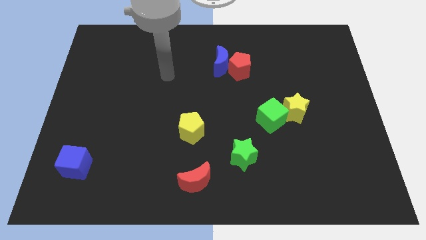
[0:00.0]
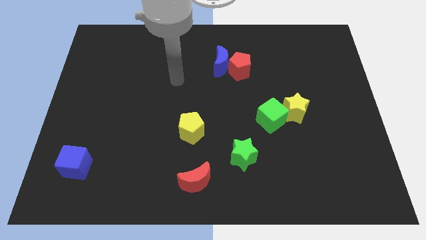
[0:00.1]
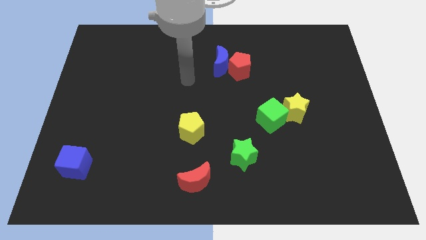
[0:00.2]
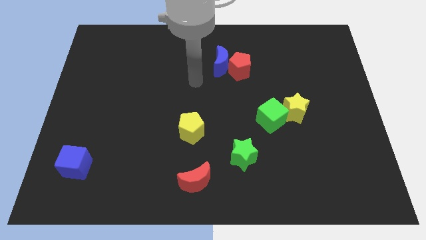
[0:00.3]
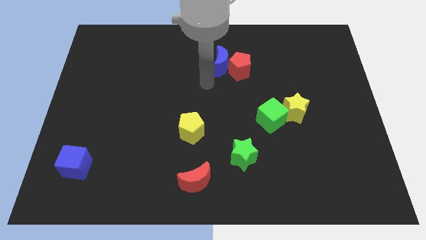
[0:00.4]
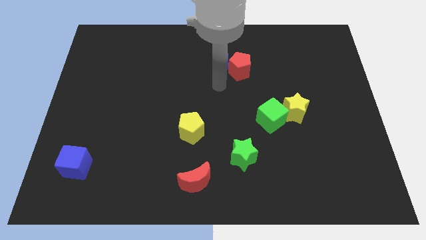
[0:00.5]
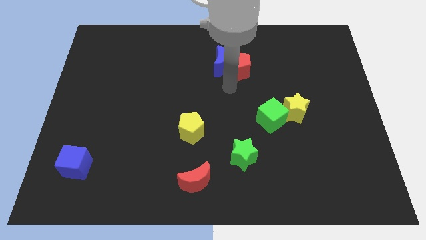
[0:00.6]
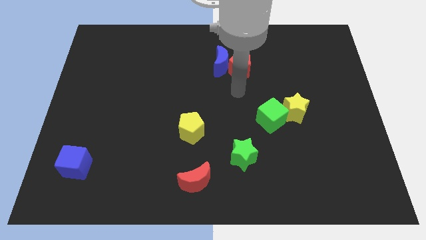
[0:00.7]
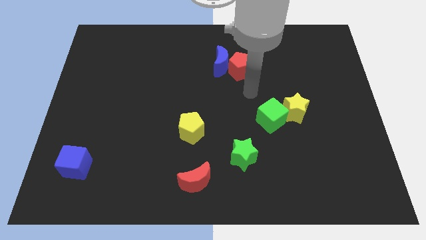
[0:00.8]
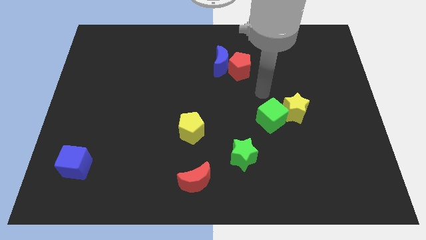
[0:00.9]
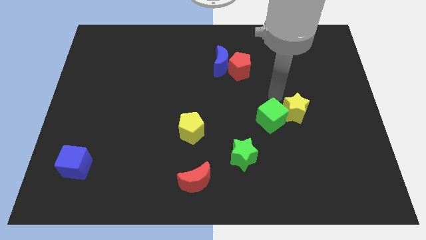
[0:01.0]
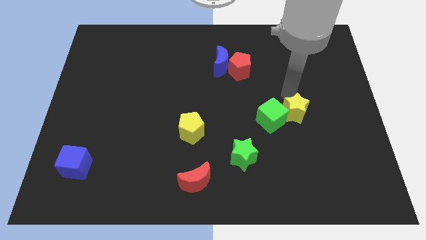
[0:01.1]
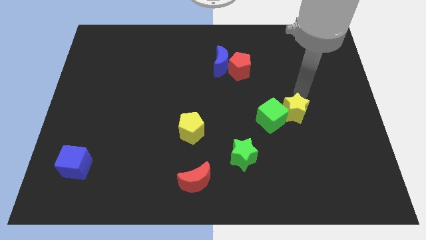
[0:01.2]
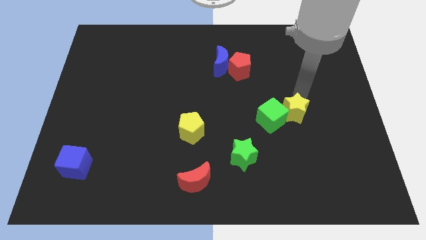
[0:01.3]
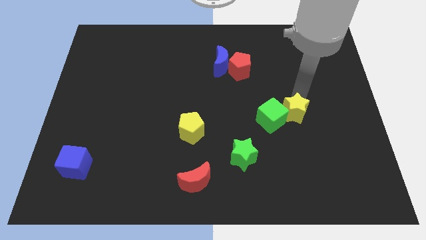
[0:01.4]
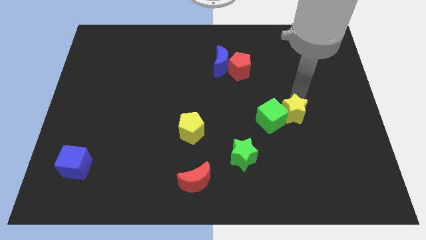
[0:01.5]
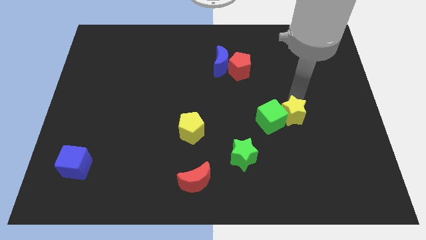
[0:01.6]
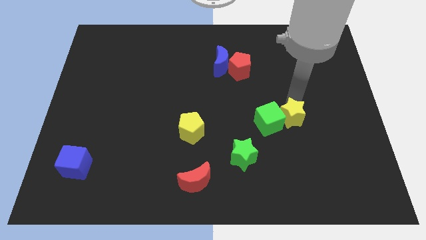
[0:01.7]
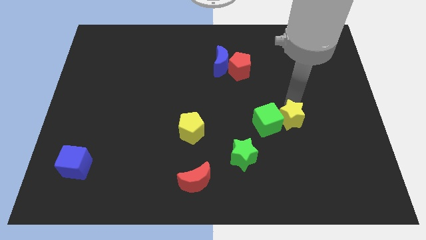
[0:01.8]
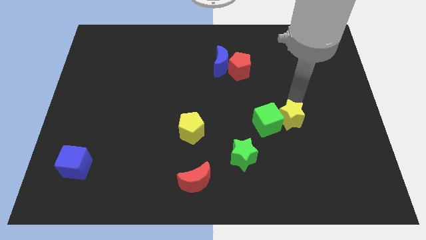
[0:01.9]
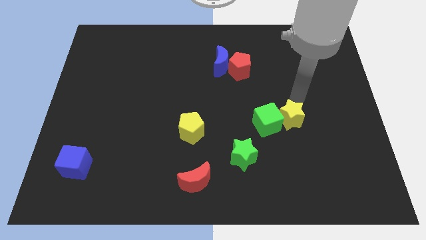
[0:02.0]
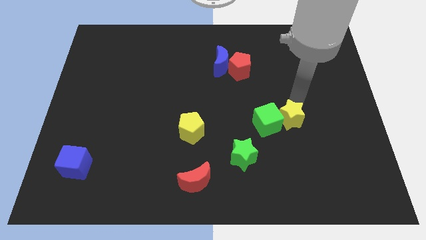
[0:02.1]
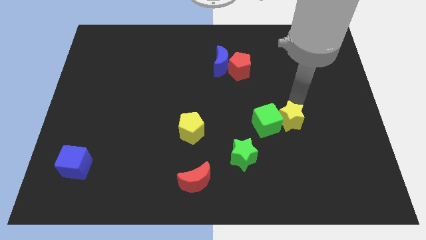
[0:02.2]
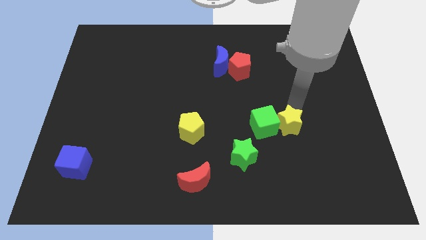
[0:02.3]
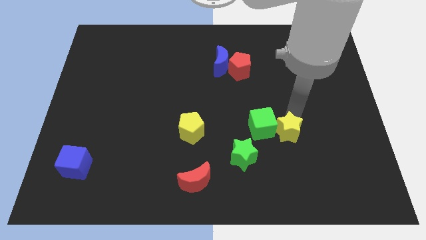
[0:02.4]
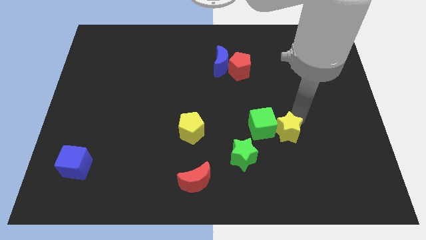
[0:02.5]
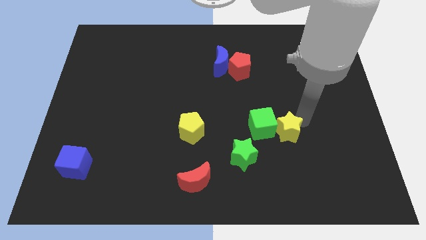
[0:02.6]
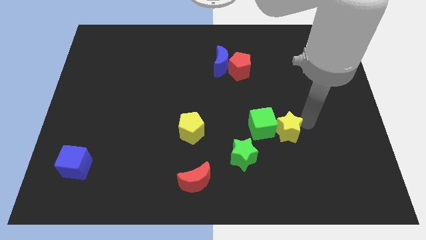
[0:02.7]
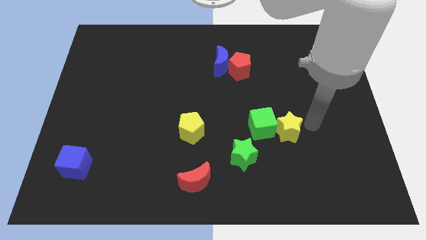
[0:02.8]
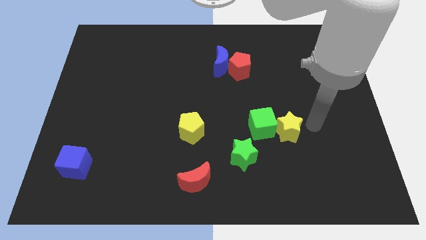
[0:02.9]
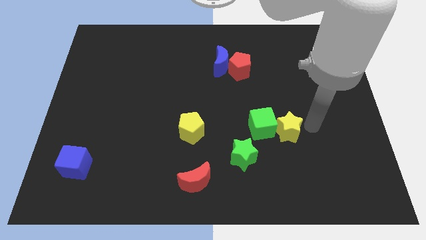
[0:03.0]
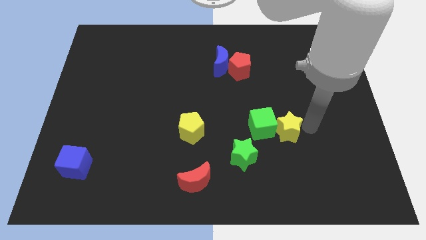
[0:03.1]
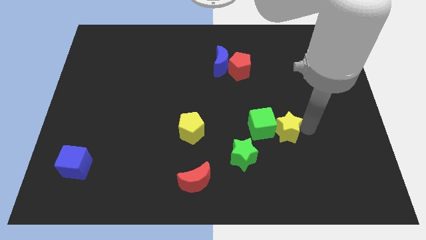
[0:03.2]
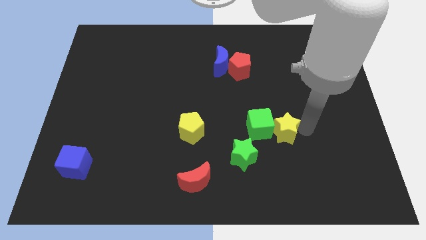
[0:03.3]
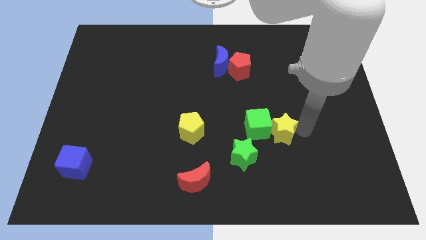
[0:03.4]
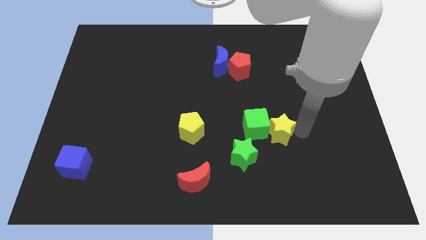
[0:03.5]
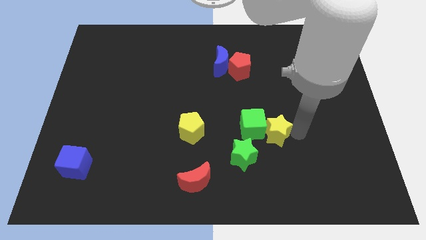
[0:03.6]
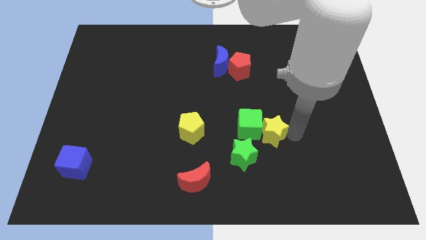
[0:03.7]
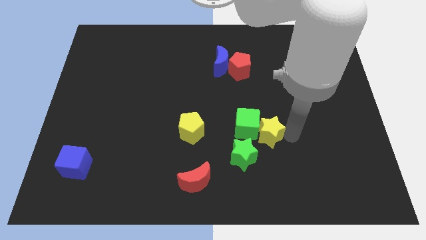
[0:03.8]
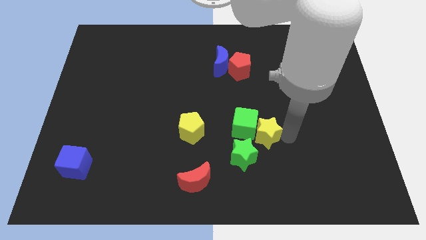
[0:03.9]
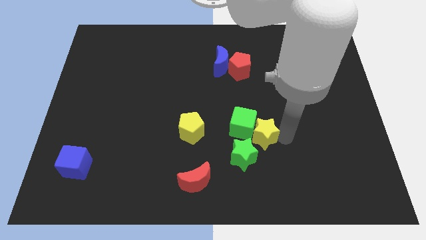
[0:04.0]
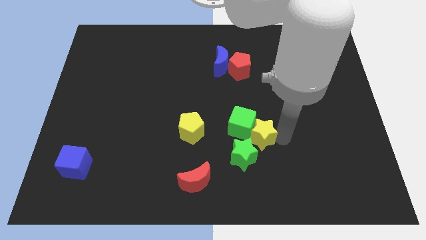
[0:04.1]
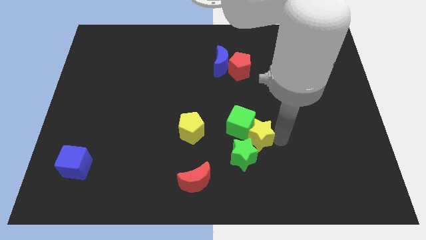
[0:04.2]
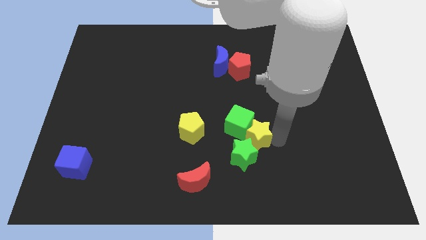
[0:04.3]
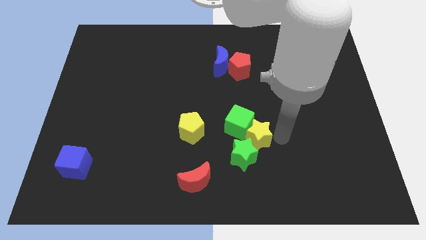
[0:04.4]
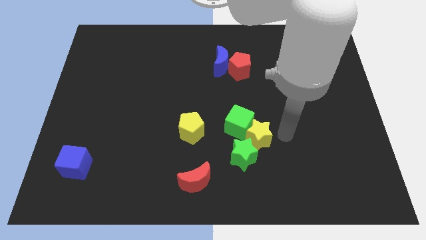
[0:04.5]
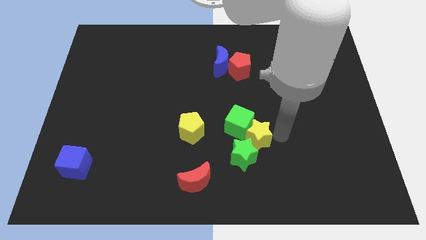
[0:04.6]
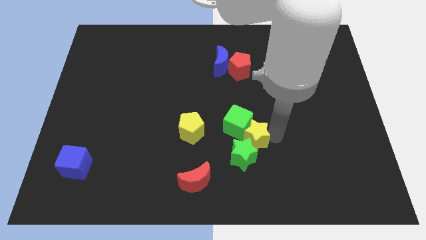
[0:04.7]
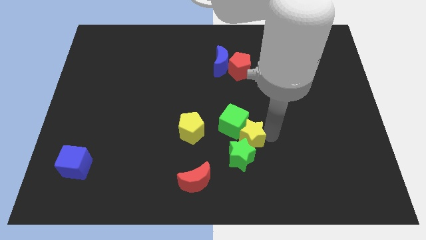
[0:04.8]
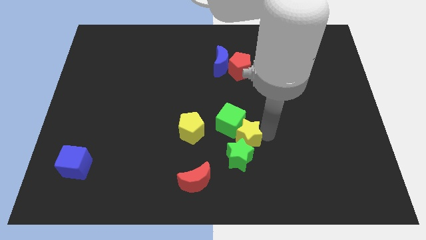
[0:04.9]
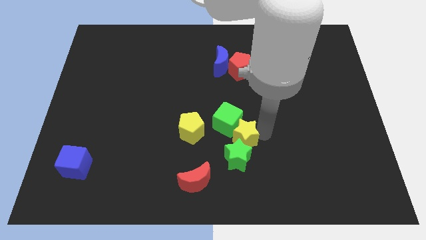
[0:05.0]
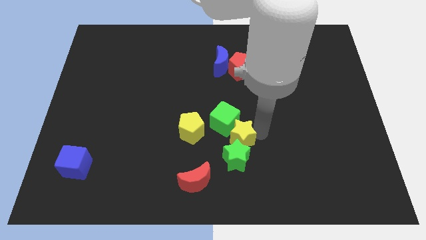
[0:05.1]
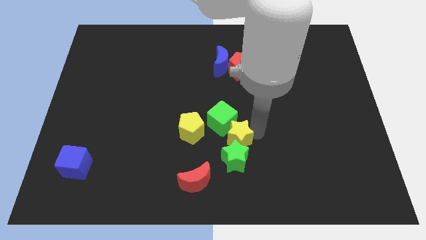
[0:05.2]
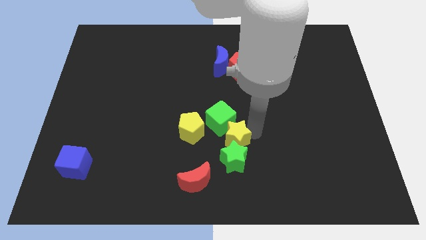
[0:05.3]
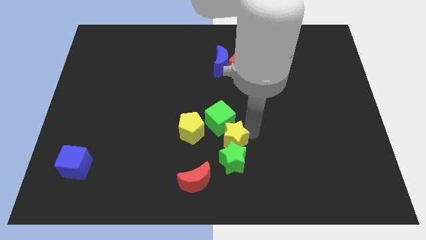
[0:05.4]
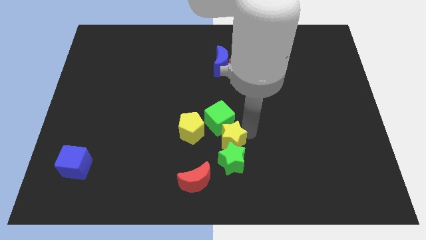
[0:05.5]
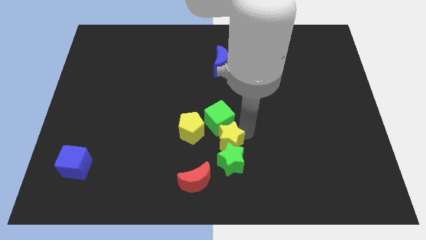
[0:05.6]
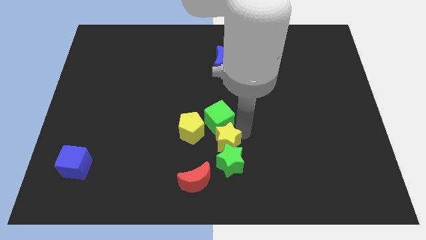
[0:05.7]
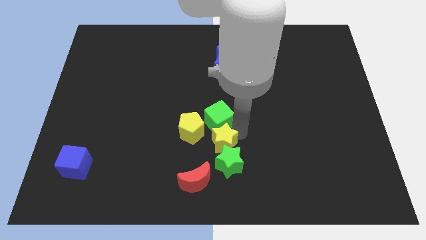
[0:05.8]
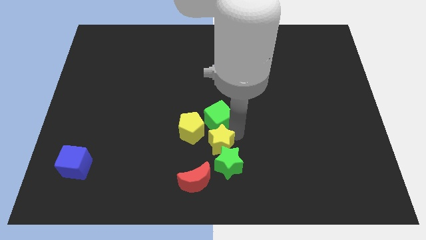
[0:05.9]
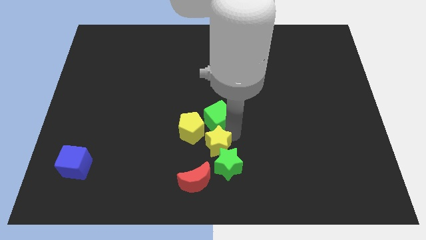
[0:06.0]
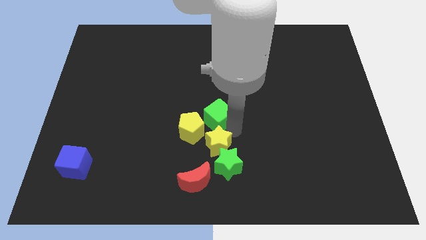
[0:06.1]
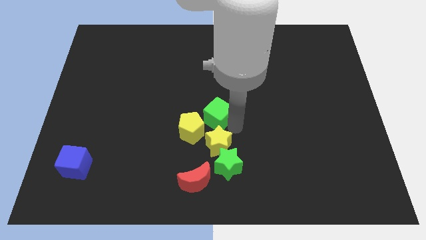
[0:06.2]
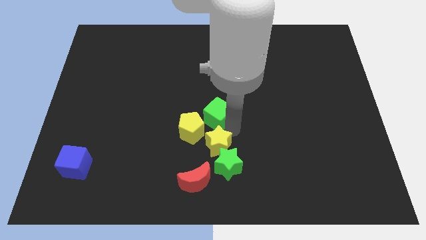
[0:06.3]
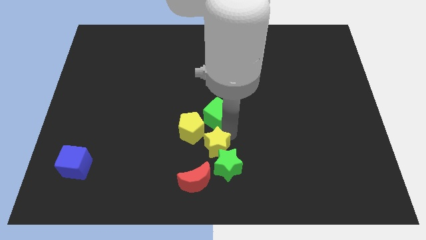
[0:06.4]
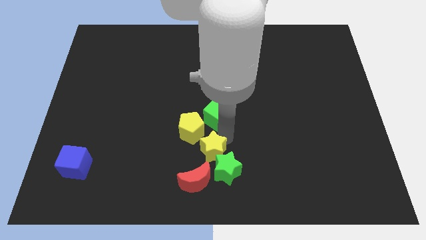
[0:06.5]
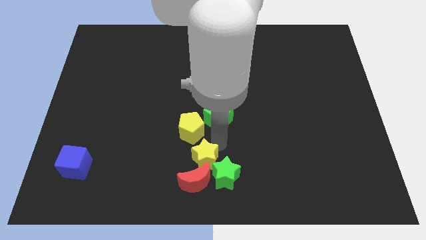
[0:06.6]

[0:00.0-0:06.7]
put the yellow star next to the red moon
